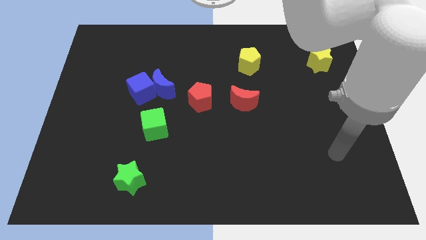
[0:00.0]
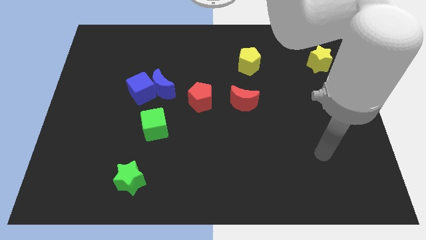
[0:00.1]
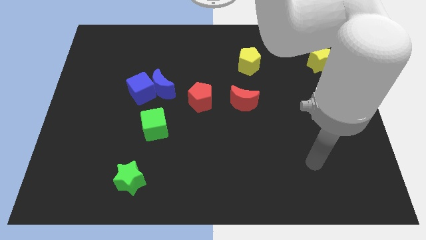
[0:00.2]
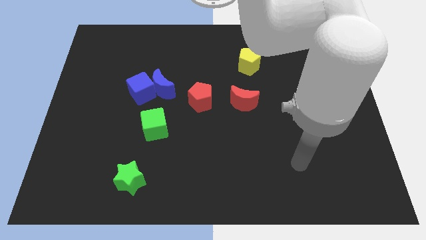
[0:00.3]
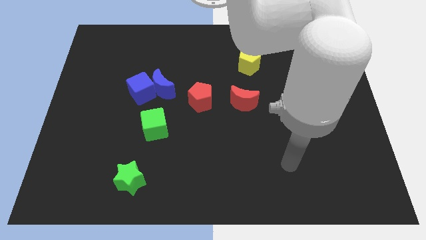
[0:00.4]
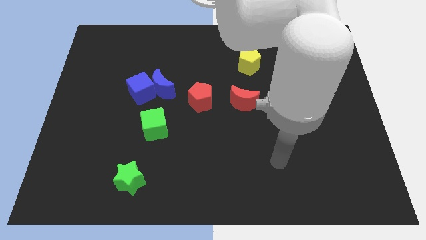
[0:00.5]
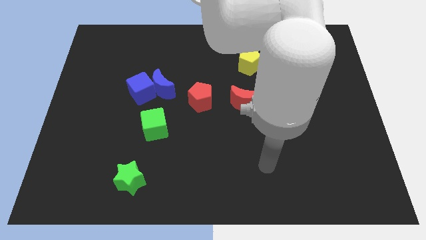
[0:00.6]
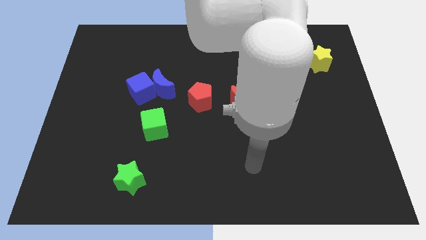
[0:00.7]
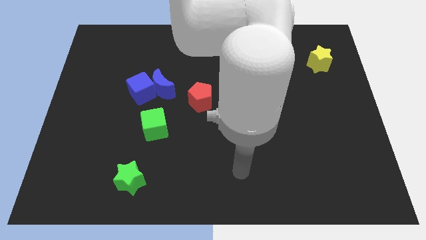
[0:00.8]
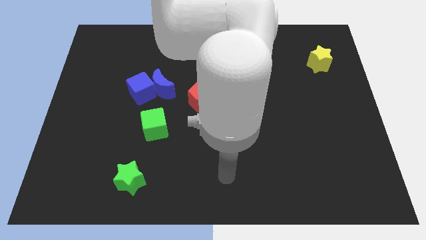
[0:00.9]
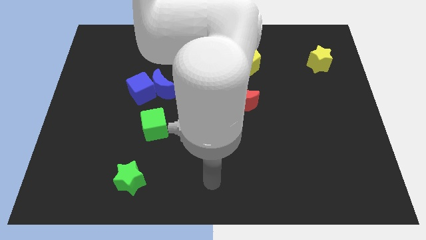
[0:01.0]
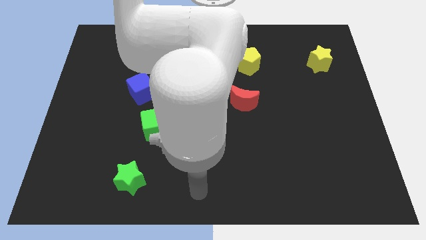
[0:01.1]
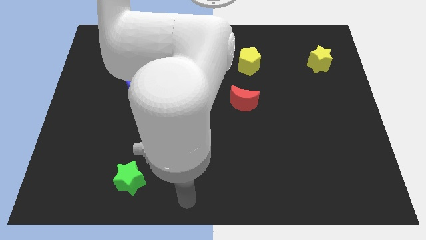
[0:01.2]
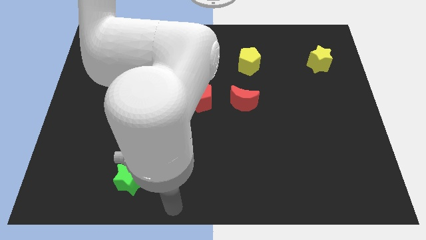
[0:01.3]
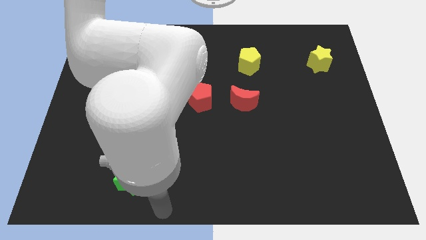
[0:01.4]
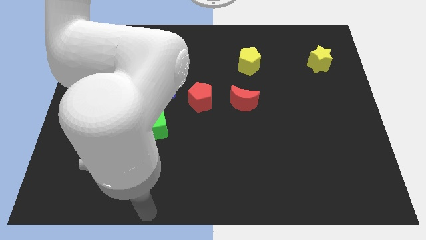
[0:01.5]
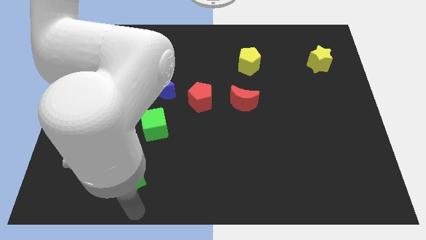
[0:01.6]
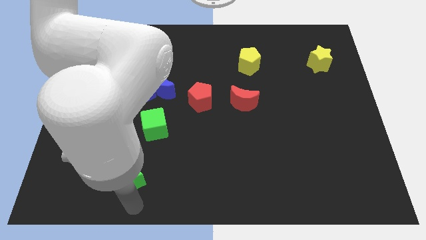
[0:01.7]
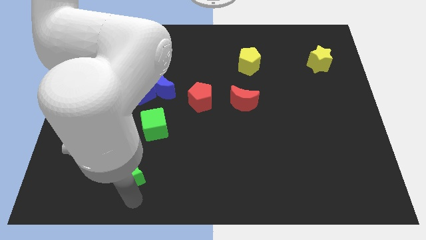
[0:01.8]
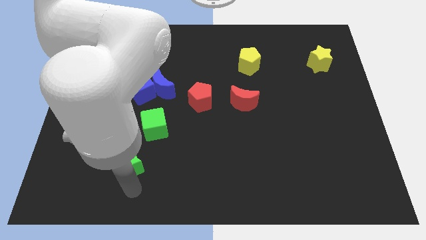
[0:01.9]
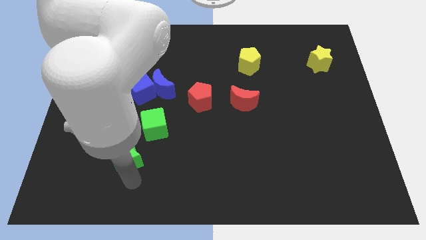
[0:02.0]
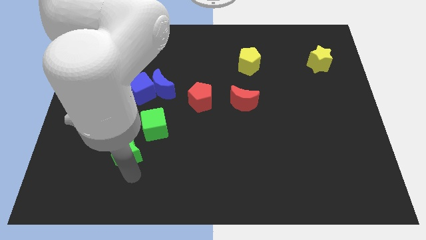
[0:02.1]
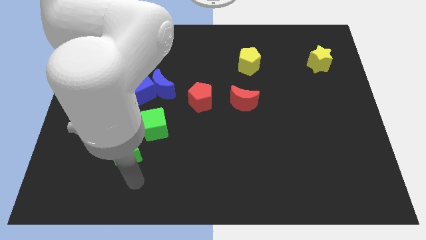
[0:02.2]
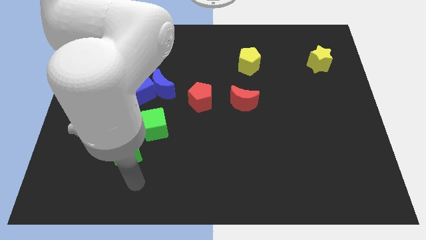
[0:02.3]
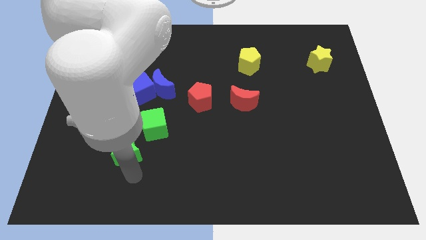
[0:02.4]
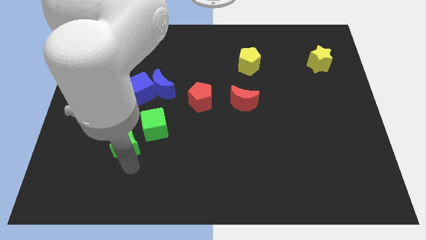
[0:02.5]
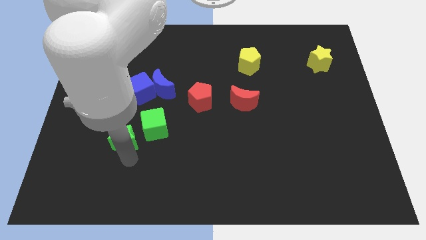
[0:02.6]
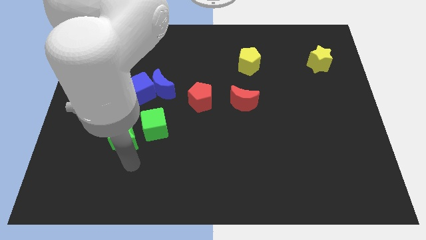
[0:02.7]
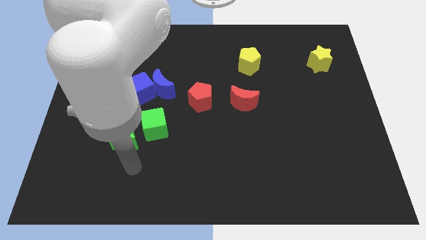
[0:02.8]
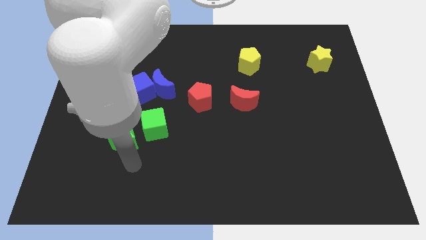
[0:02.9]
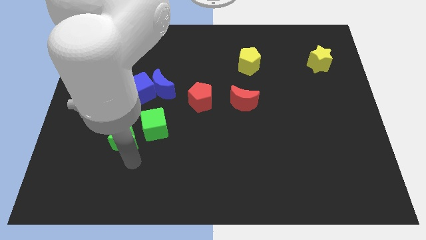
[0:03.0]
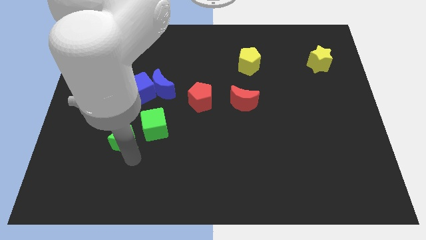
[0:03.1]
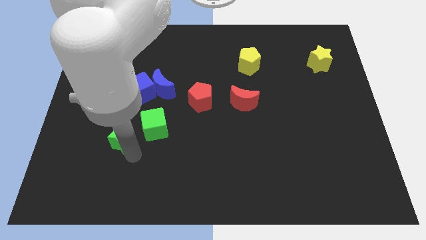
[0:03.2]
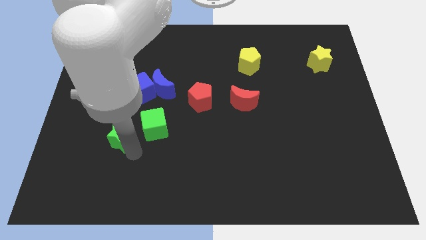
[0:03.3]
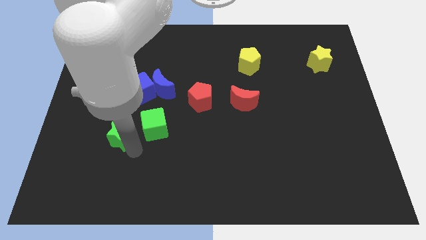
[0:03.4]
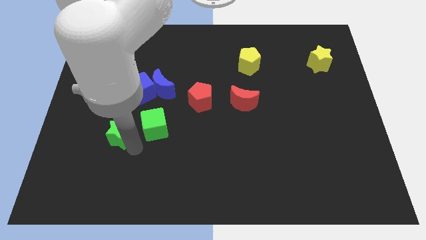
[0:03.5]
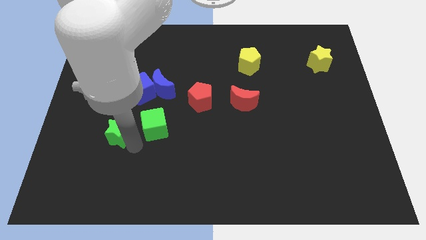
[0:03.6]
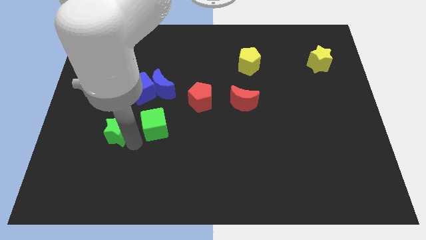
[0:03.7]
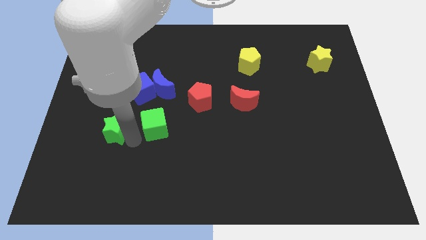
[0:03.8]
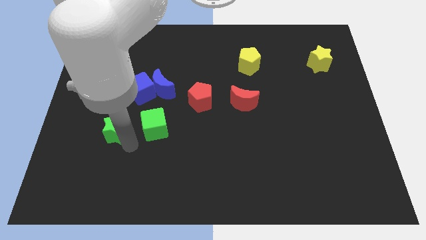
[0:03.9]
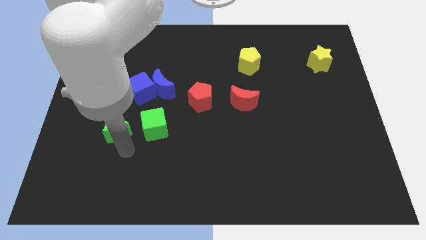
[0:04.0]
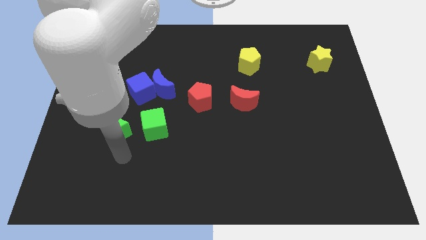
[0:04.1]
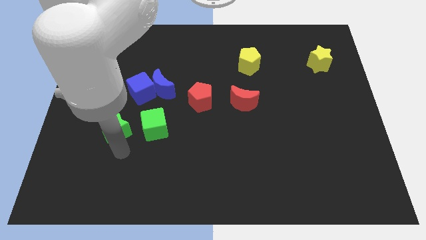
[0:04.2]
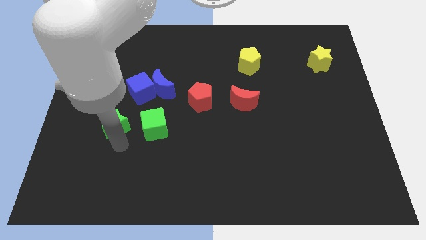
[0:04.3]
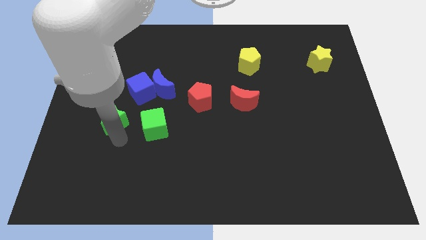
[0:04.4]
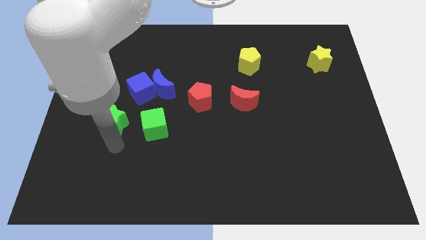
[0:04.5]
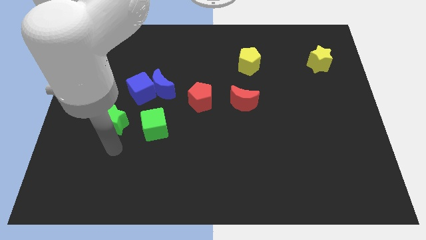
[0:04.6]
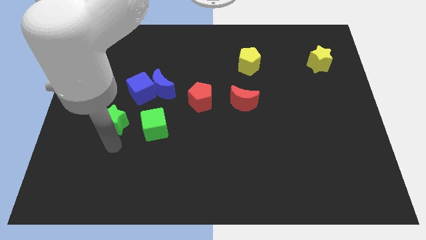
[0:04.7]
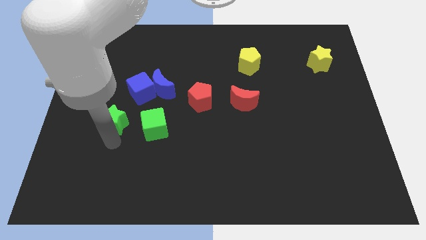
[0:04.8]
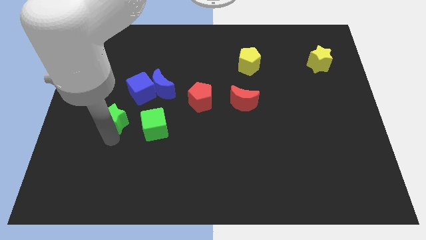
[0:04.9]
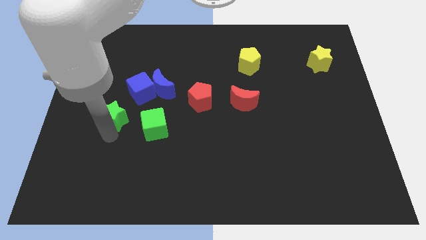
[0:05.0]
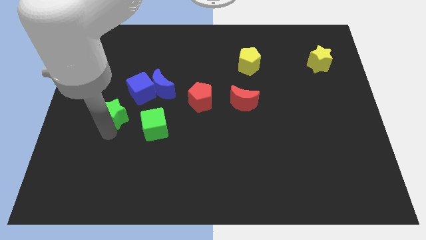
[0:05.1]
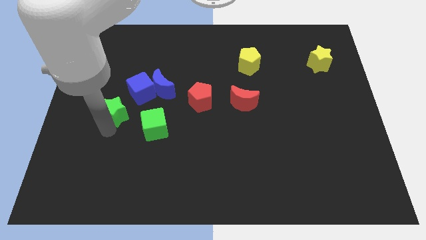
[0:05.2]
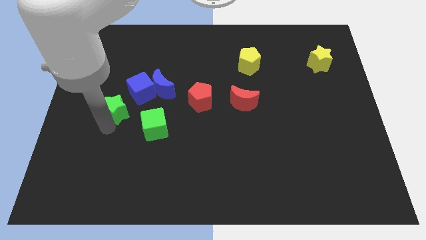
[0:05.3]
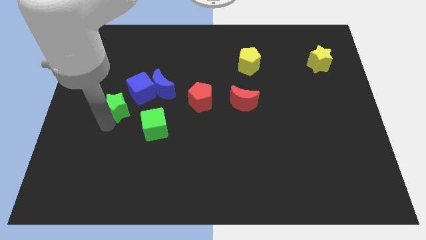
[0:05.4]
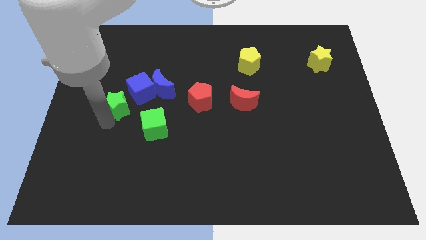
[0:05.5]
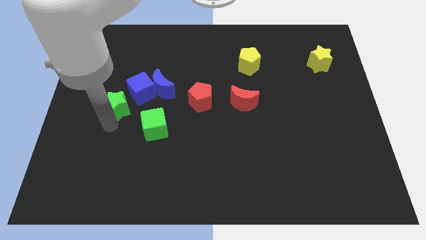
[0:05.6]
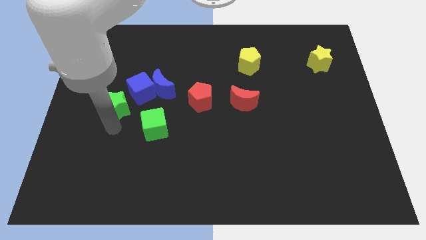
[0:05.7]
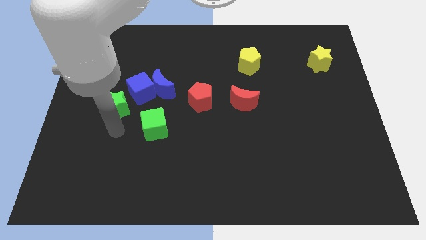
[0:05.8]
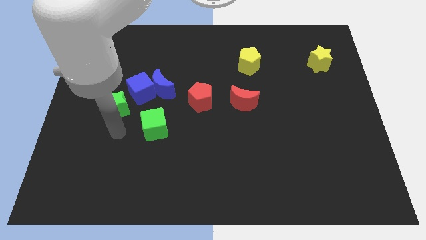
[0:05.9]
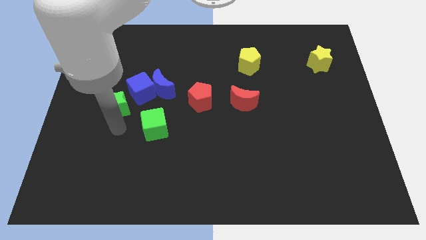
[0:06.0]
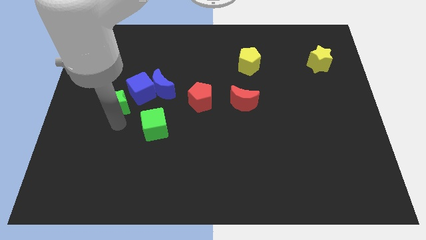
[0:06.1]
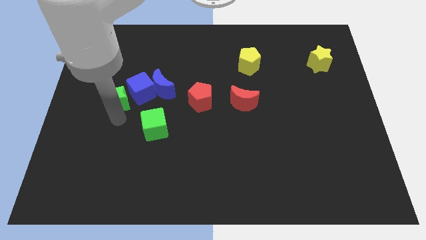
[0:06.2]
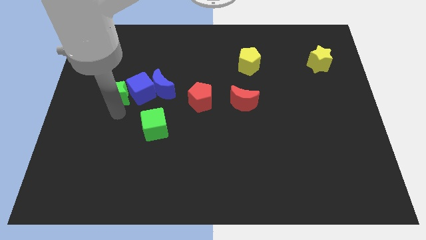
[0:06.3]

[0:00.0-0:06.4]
push the green star to the blue cube

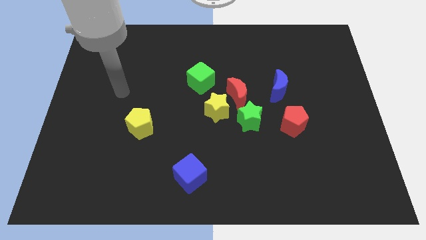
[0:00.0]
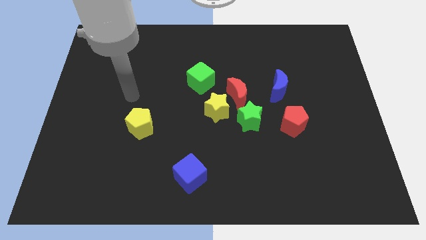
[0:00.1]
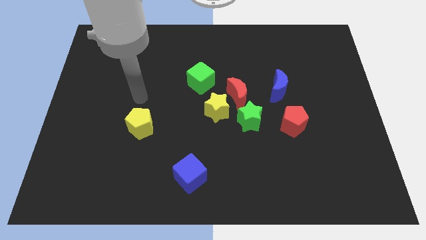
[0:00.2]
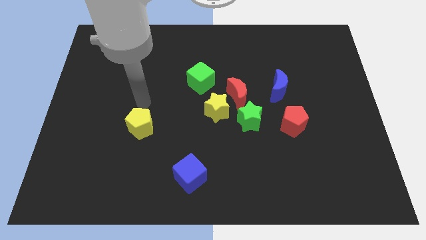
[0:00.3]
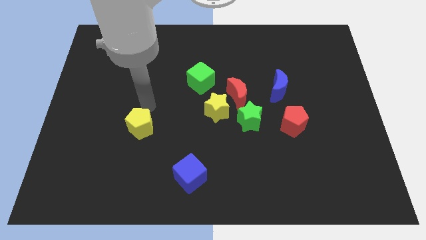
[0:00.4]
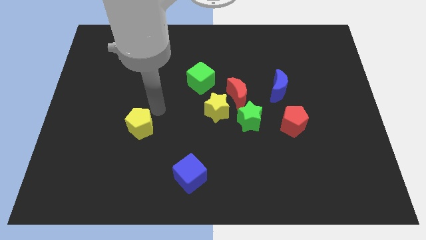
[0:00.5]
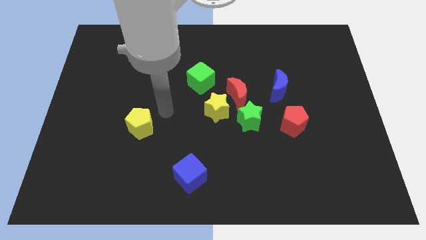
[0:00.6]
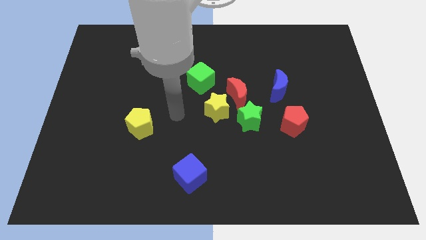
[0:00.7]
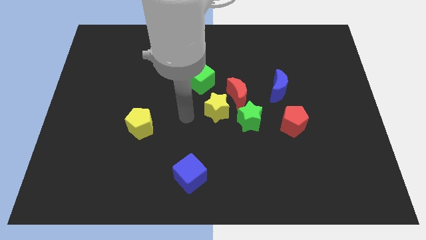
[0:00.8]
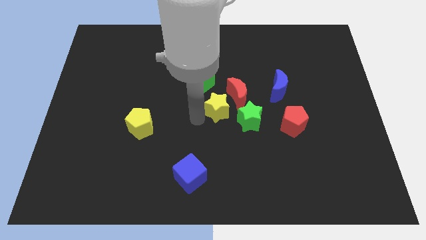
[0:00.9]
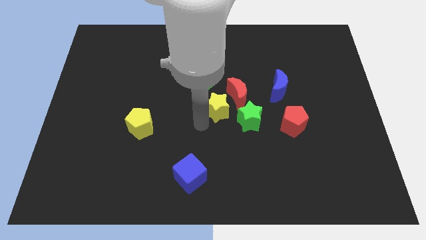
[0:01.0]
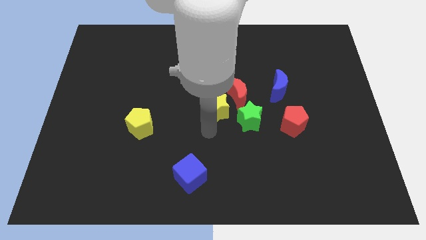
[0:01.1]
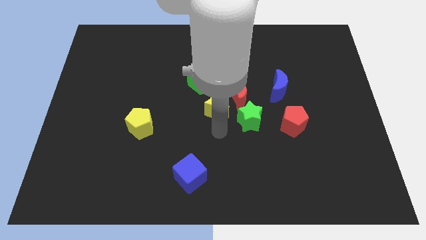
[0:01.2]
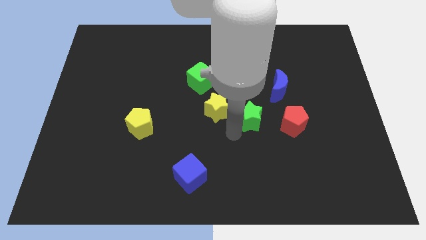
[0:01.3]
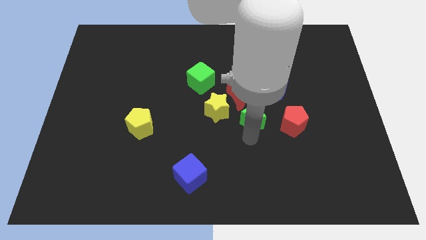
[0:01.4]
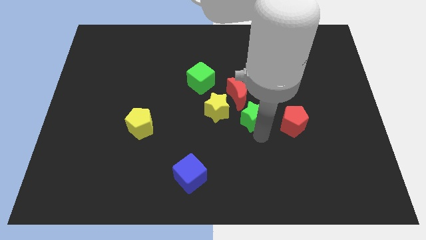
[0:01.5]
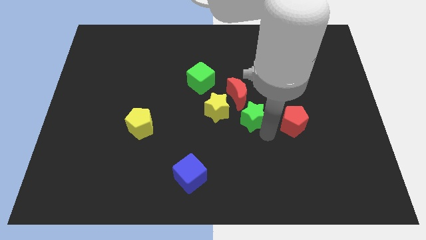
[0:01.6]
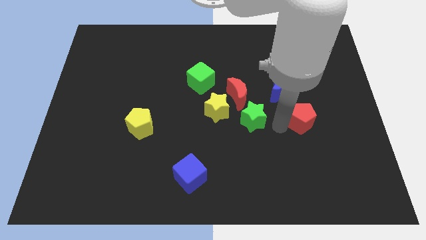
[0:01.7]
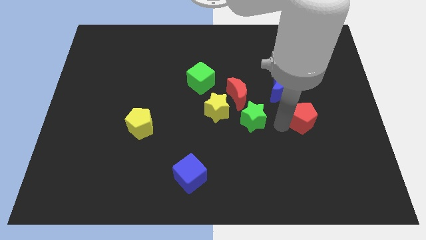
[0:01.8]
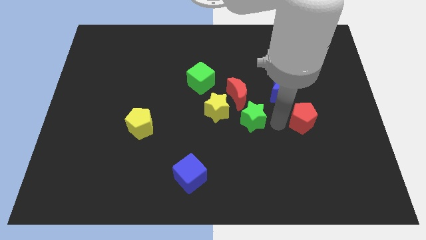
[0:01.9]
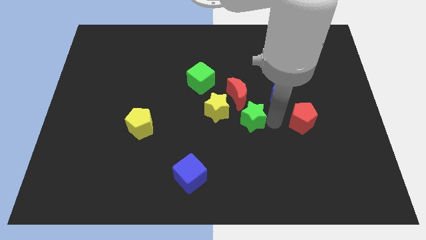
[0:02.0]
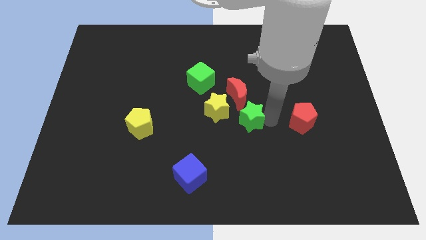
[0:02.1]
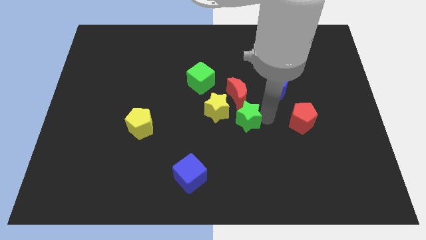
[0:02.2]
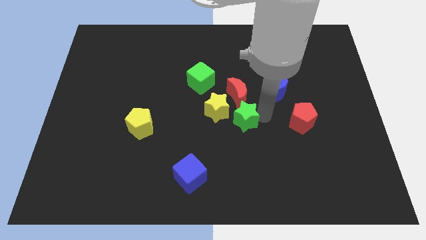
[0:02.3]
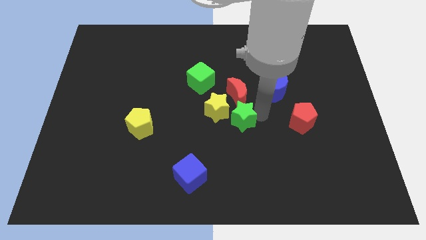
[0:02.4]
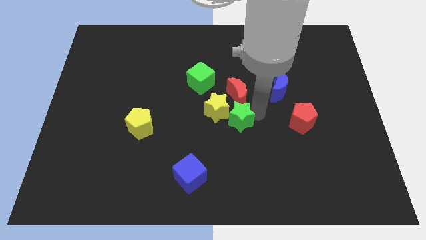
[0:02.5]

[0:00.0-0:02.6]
push the green star next to the yellow star
